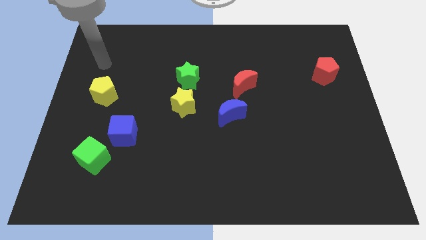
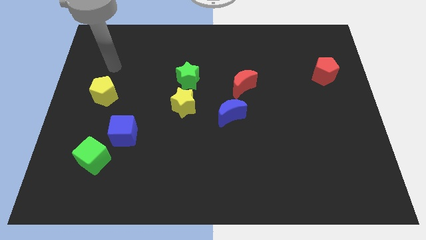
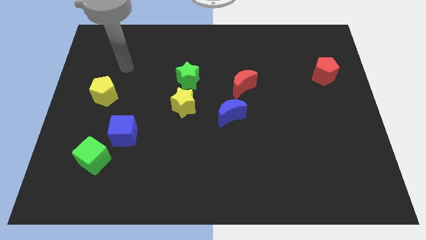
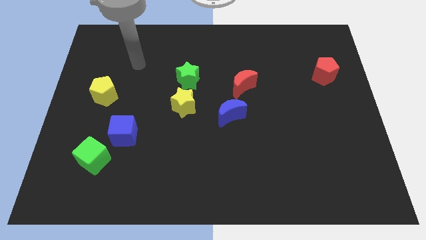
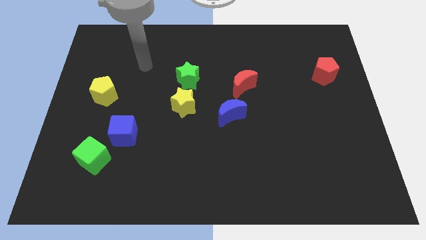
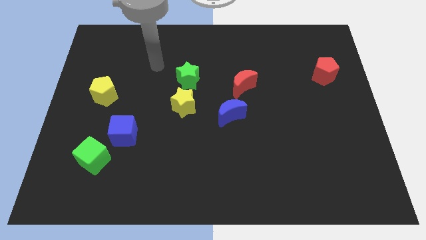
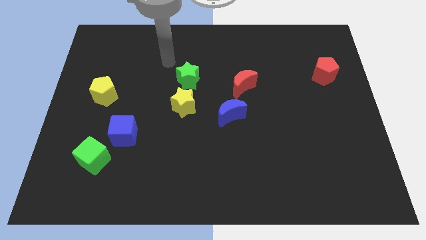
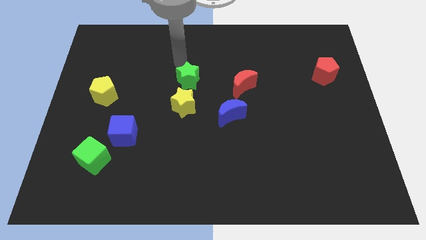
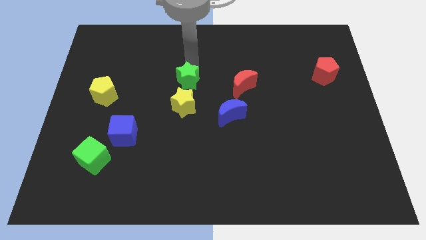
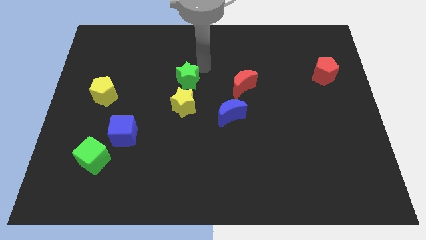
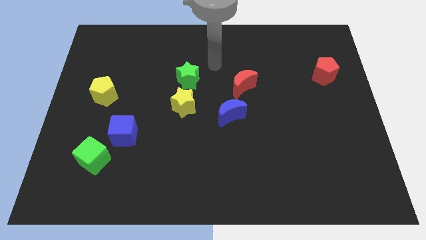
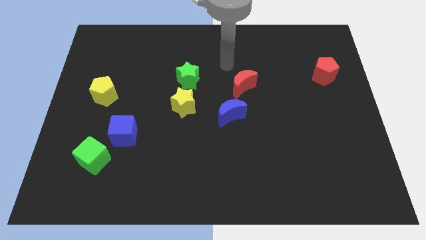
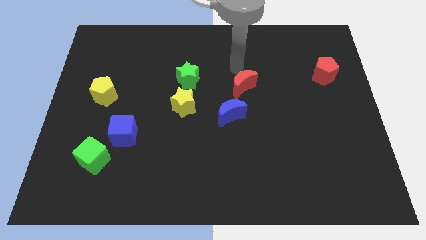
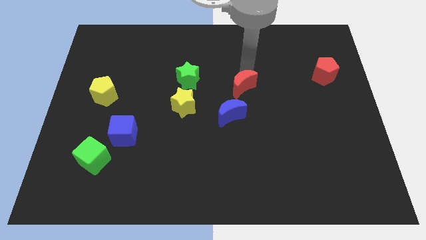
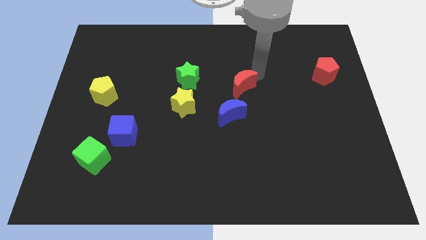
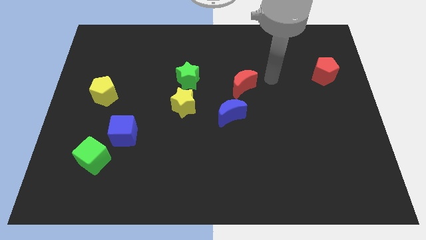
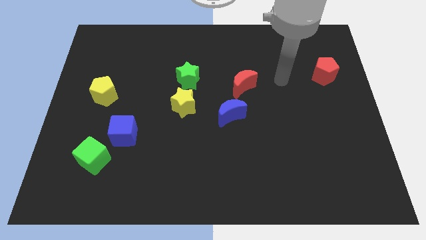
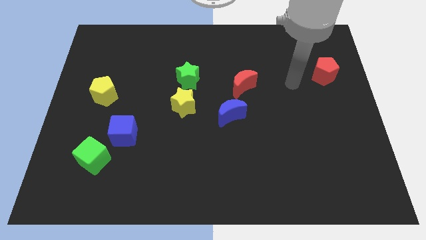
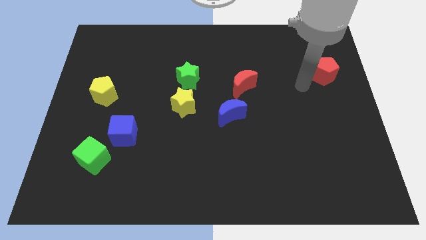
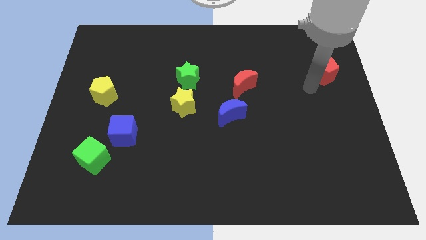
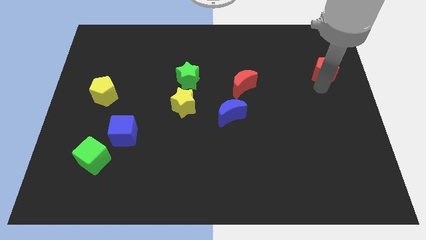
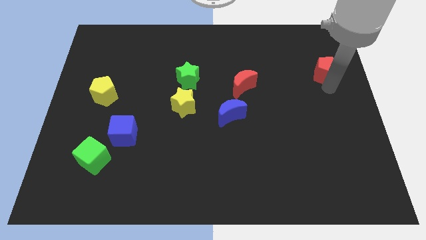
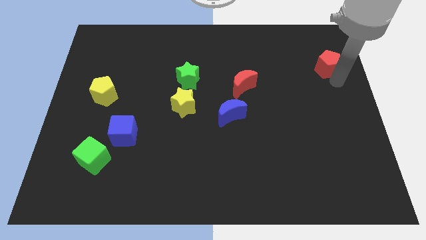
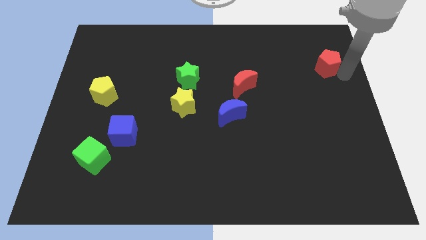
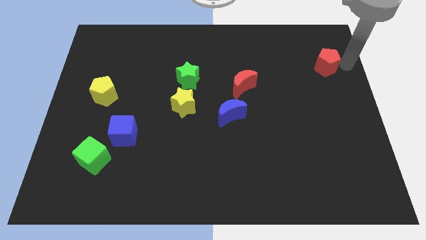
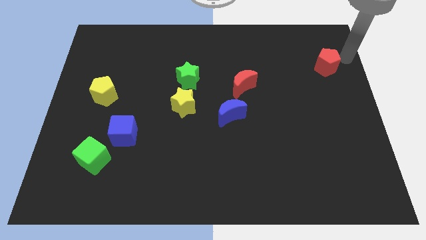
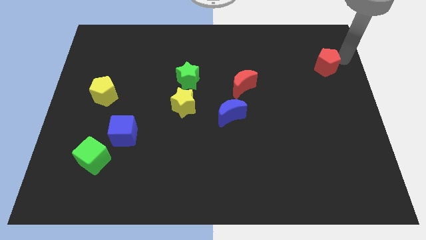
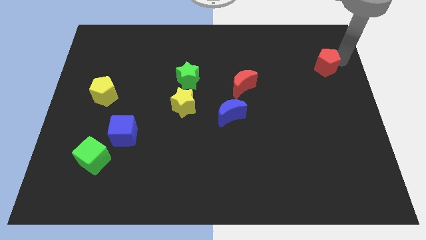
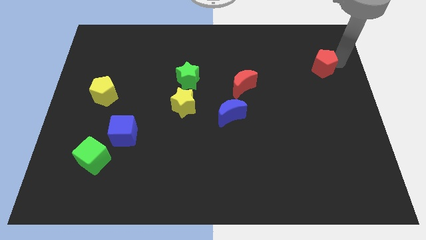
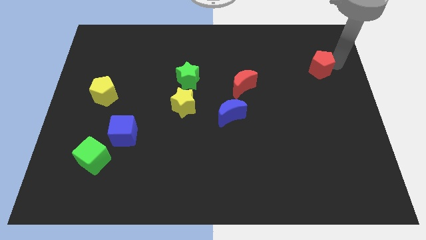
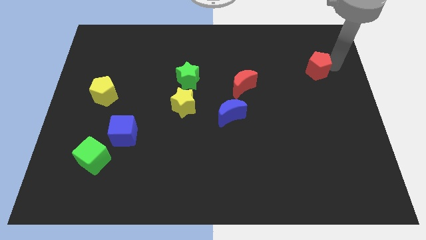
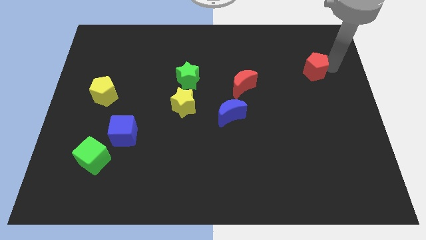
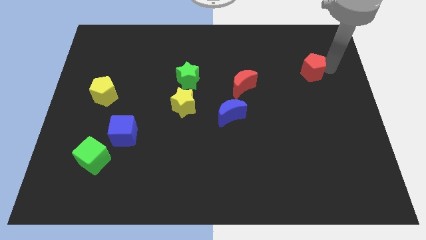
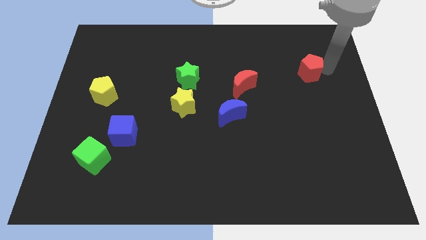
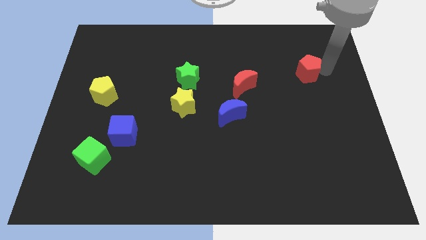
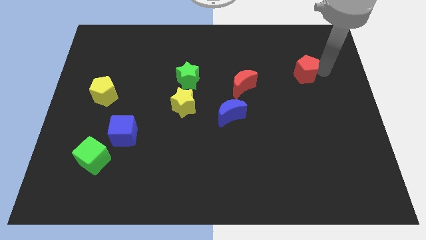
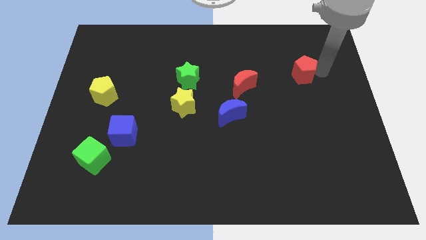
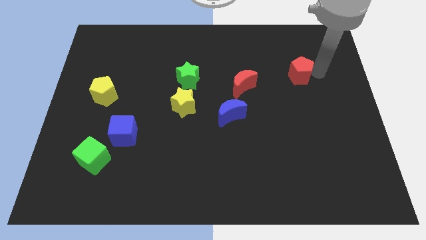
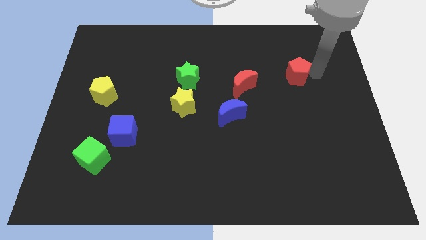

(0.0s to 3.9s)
move the red pentagon a little bit left

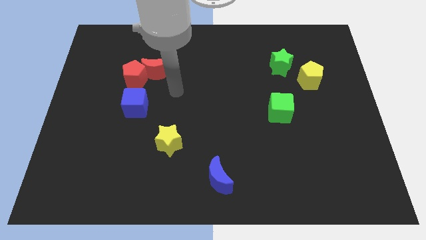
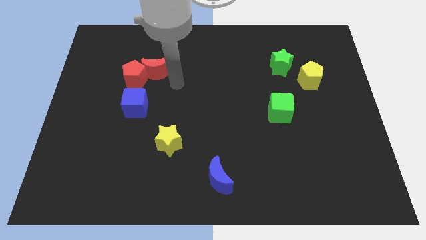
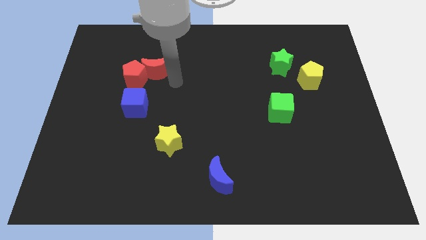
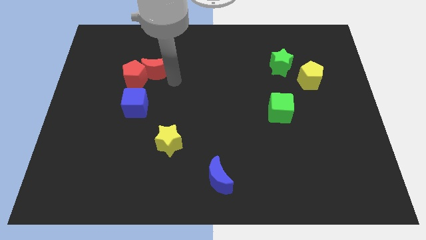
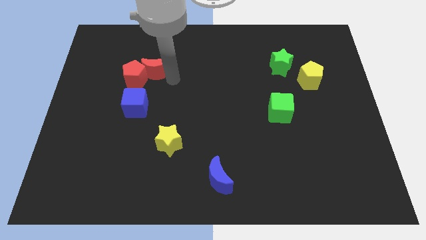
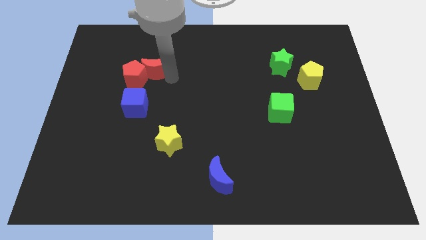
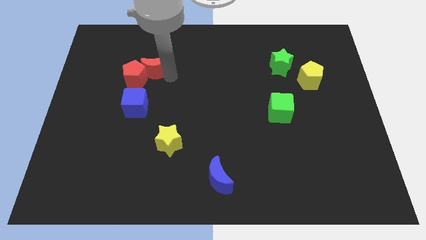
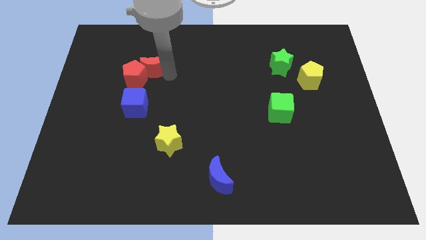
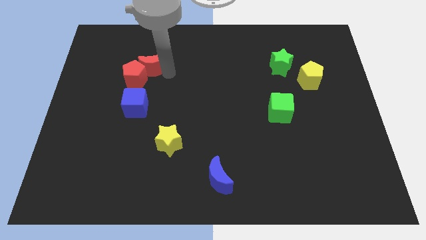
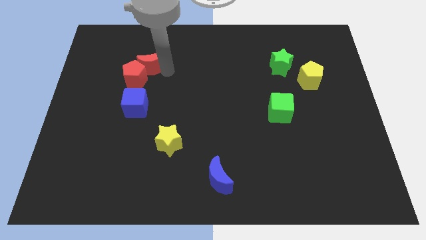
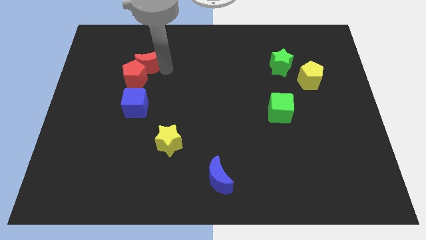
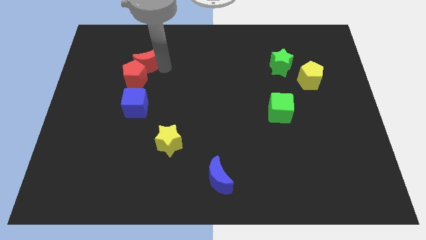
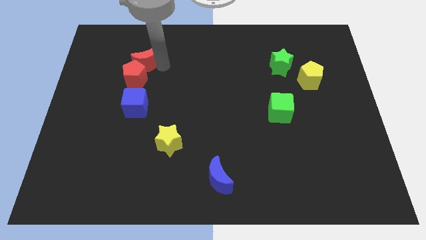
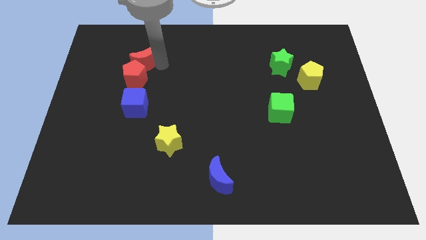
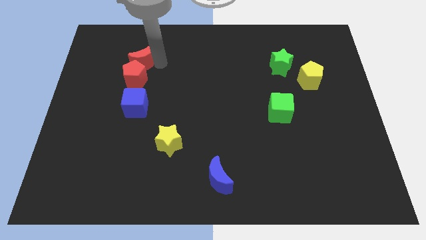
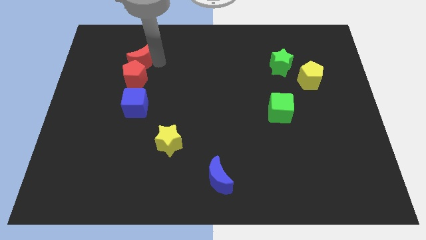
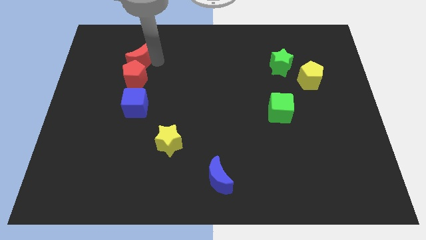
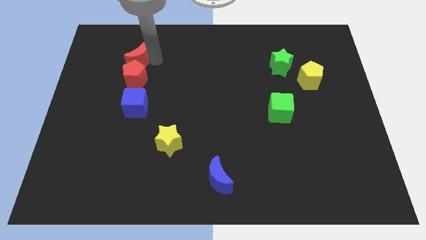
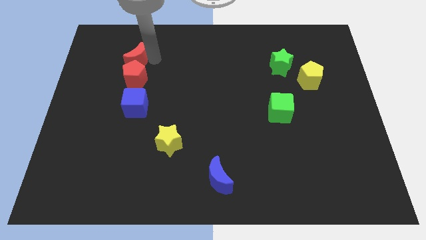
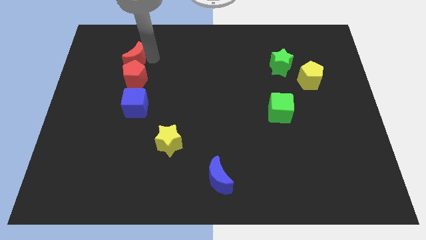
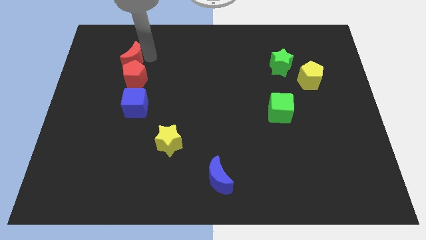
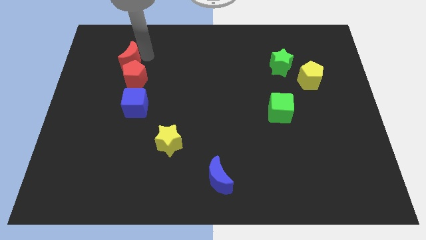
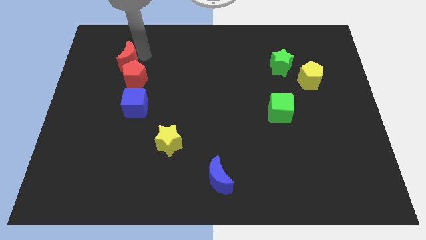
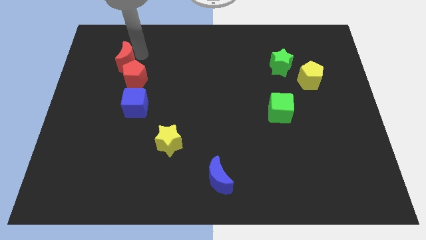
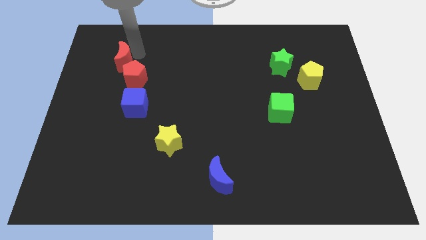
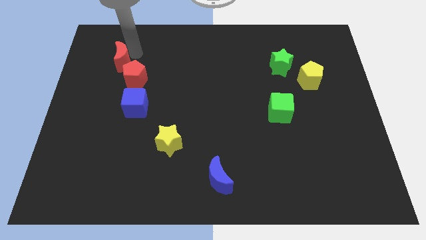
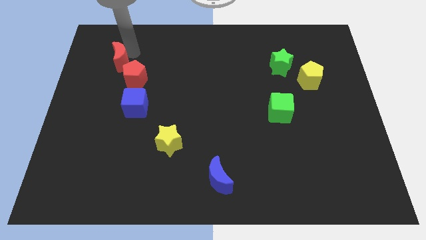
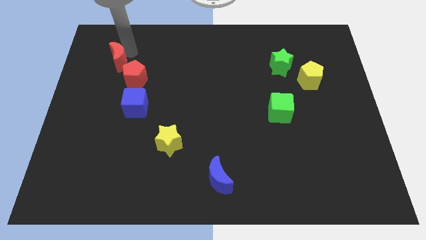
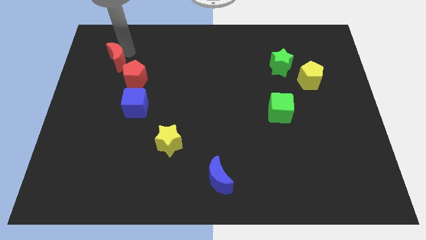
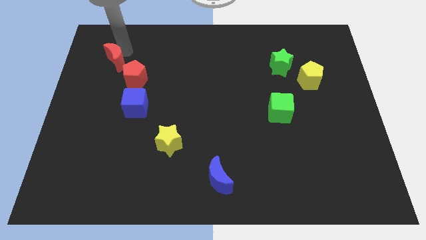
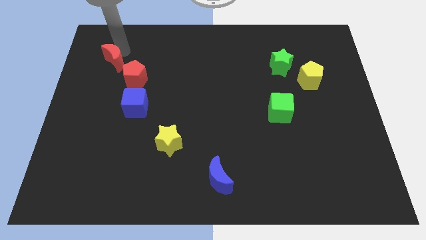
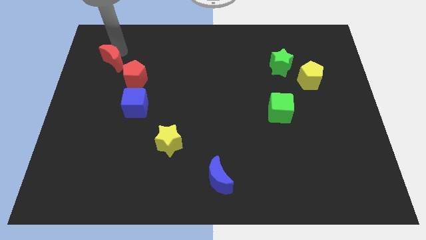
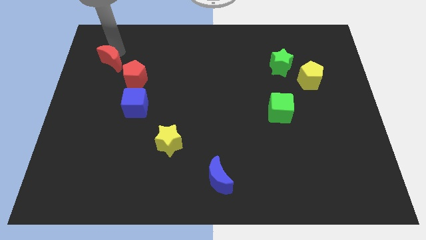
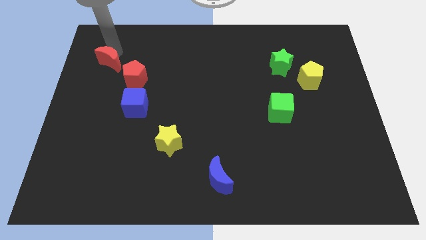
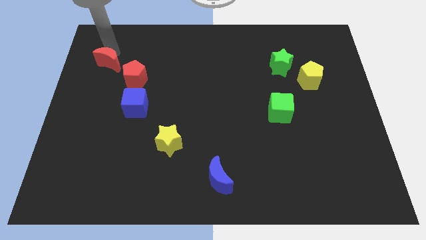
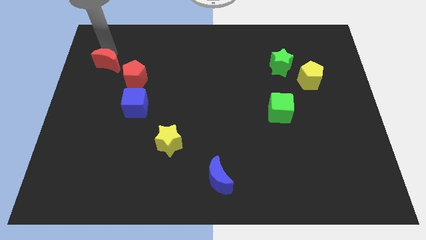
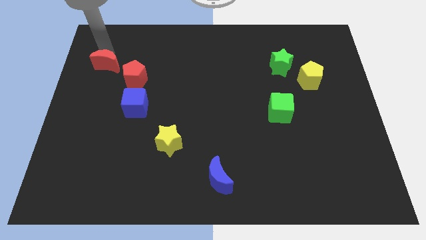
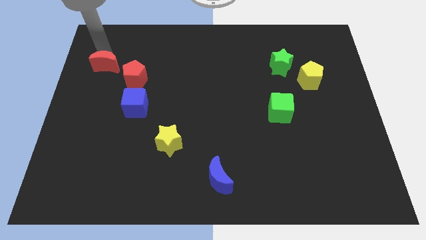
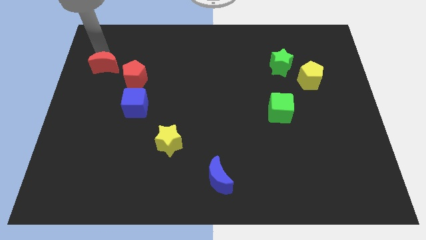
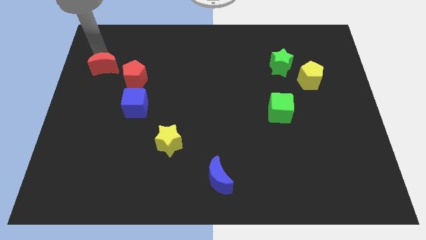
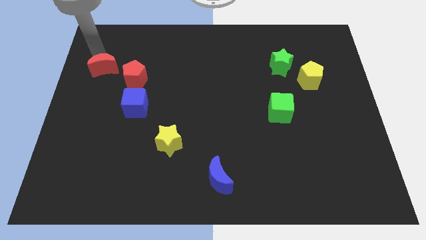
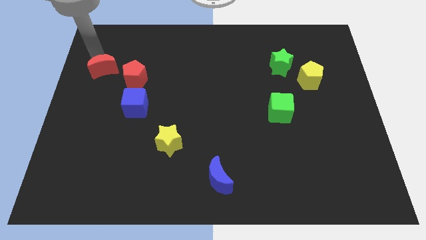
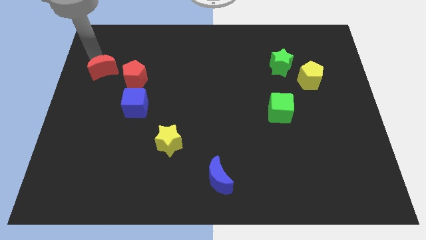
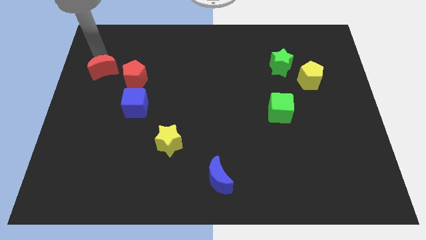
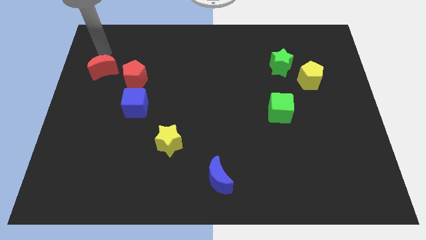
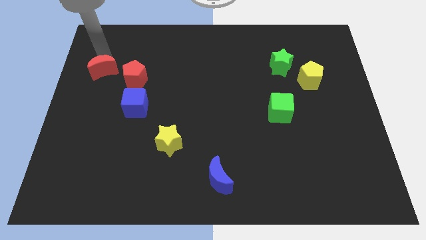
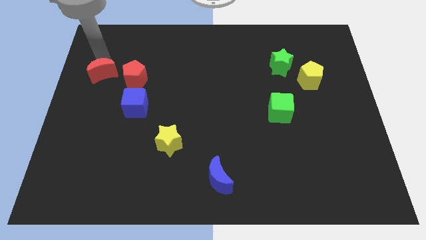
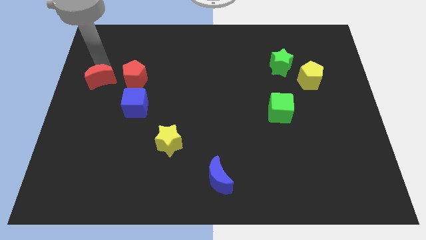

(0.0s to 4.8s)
push the red moon a little down and to the left
